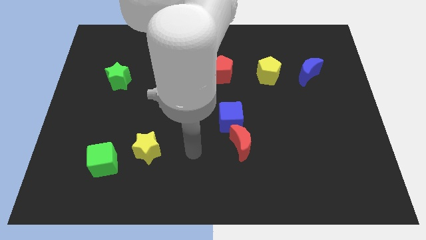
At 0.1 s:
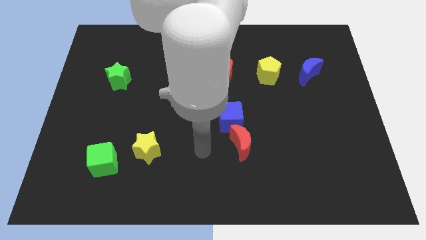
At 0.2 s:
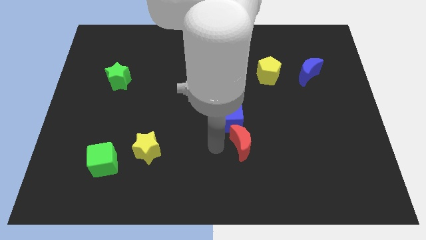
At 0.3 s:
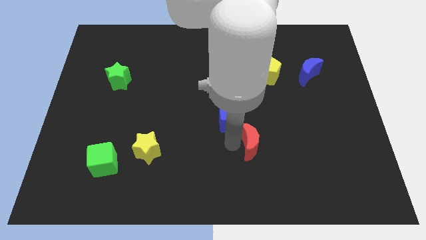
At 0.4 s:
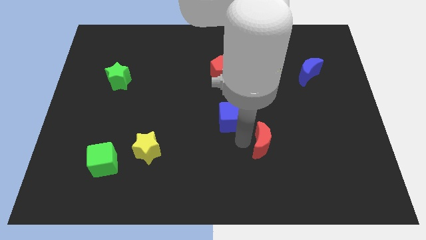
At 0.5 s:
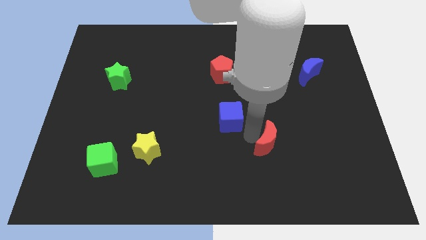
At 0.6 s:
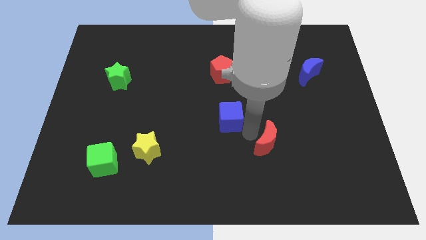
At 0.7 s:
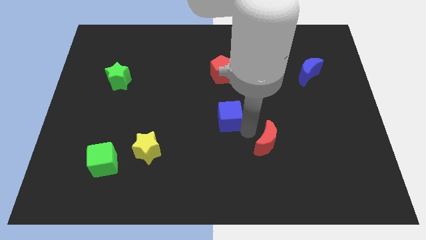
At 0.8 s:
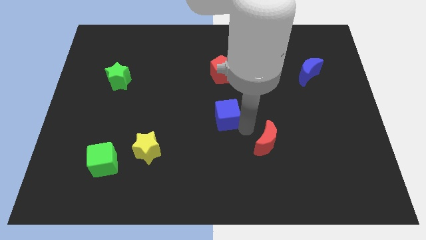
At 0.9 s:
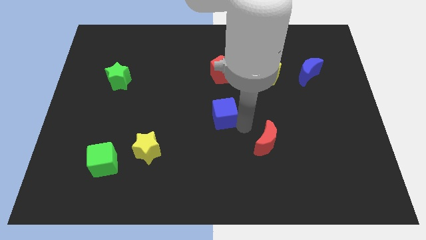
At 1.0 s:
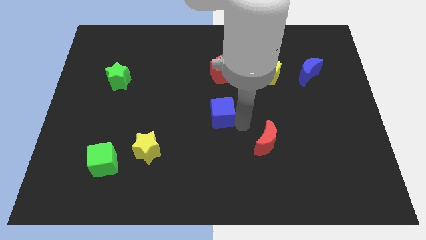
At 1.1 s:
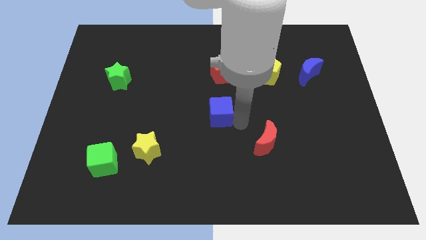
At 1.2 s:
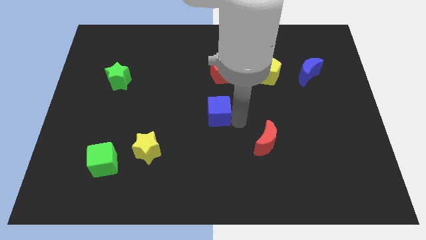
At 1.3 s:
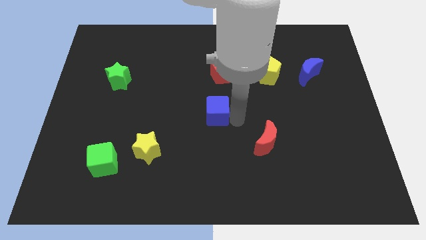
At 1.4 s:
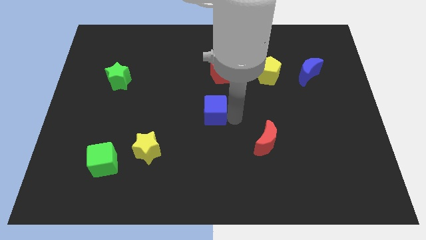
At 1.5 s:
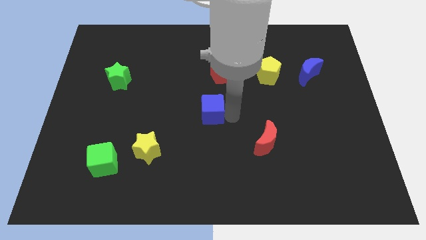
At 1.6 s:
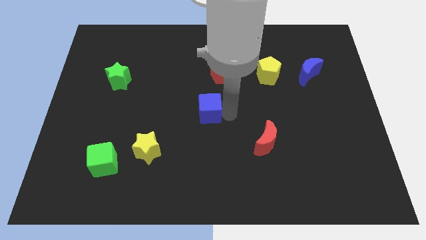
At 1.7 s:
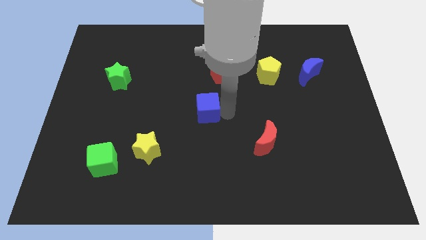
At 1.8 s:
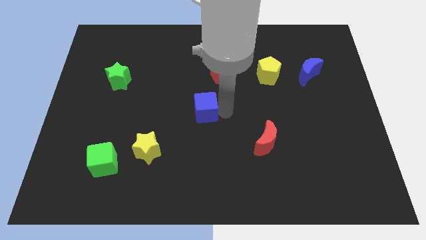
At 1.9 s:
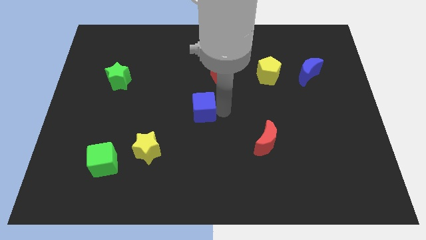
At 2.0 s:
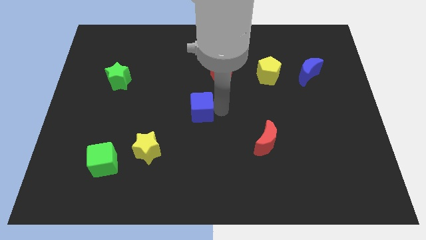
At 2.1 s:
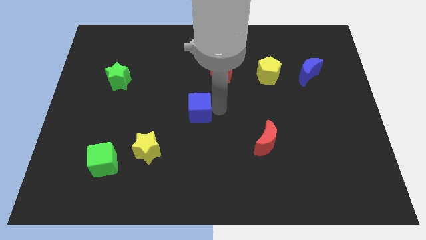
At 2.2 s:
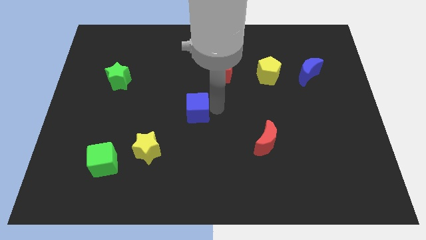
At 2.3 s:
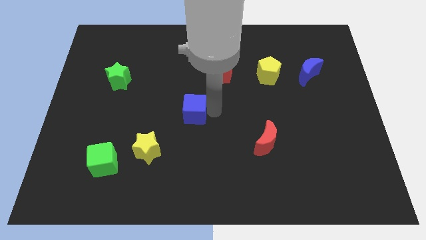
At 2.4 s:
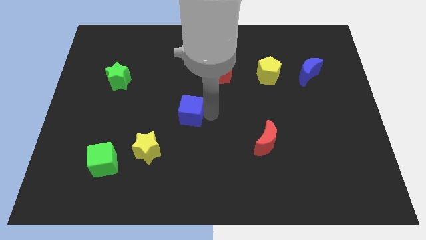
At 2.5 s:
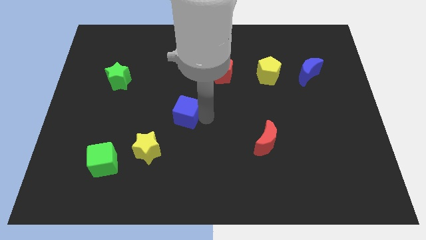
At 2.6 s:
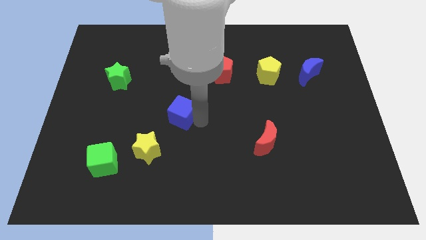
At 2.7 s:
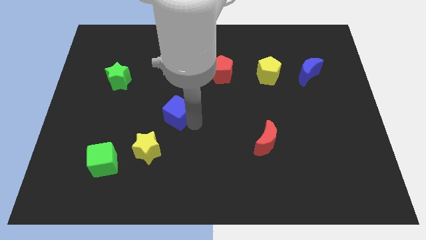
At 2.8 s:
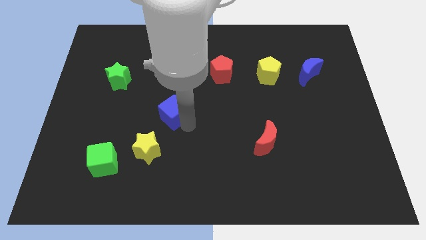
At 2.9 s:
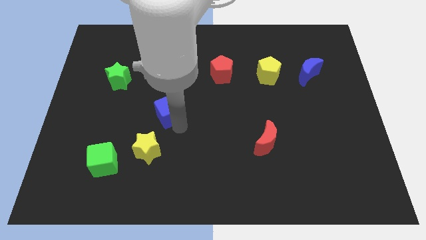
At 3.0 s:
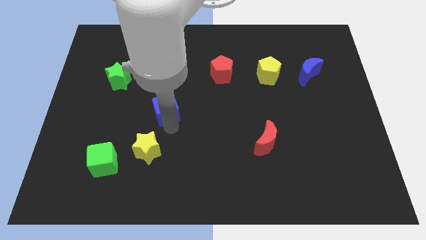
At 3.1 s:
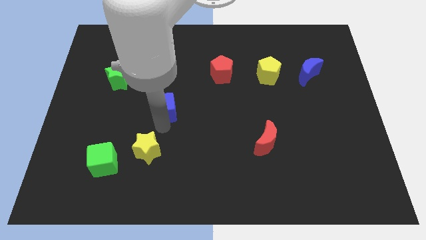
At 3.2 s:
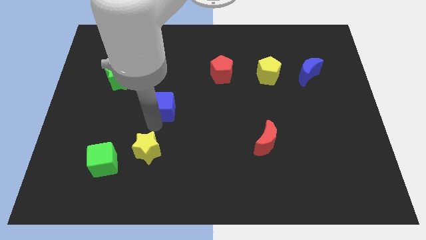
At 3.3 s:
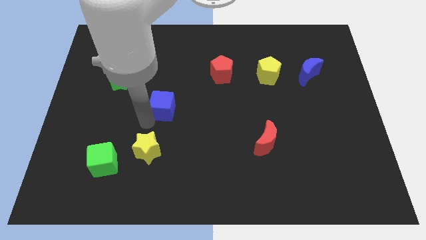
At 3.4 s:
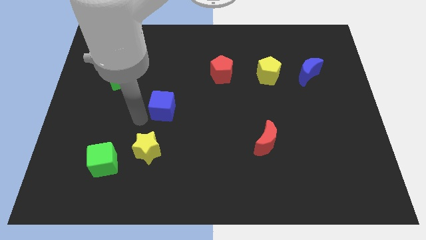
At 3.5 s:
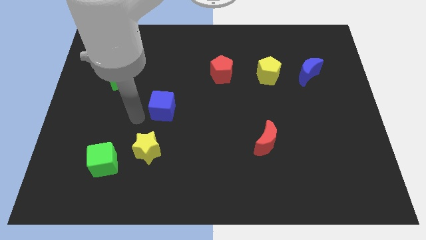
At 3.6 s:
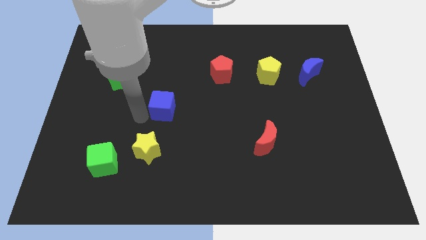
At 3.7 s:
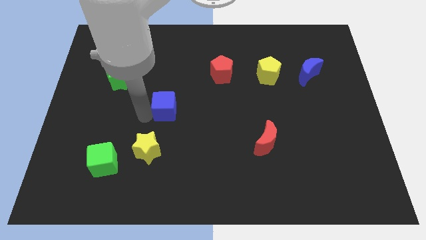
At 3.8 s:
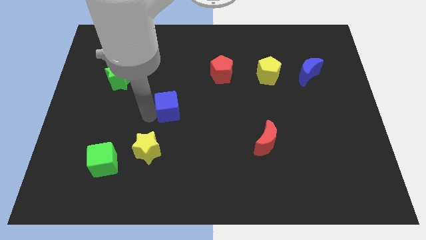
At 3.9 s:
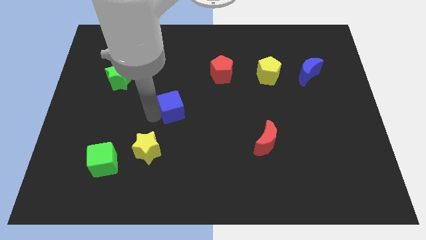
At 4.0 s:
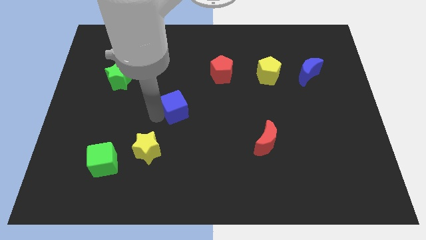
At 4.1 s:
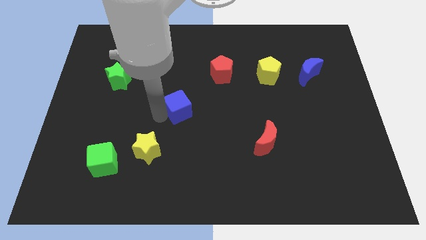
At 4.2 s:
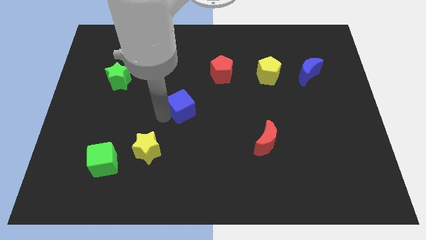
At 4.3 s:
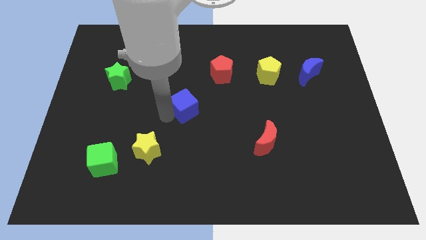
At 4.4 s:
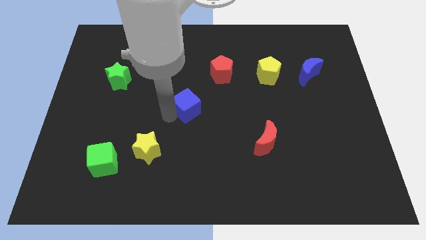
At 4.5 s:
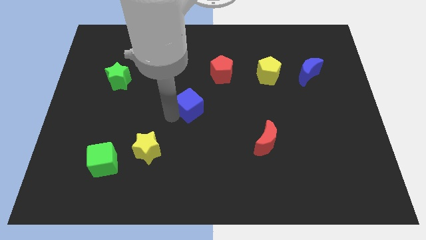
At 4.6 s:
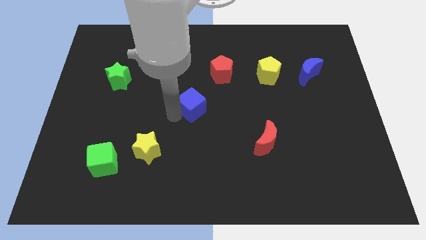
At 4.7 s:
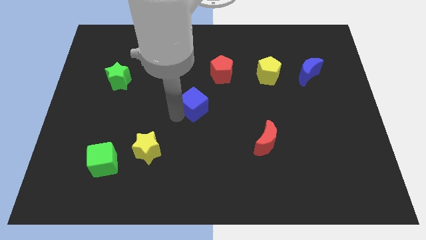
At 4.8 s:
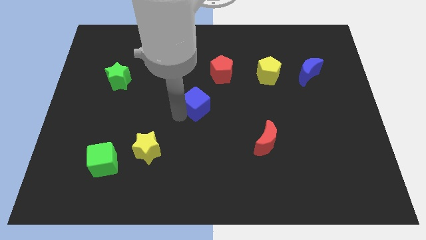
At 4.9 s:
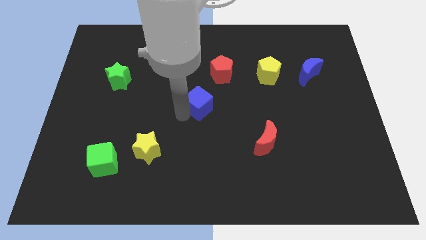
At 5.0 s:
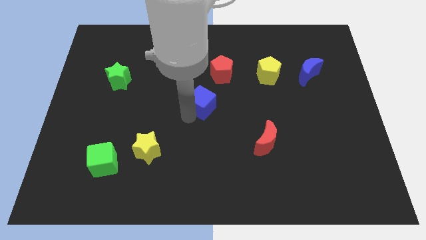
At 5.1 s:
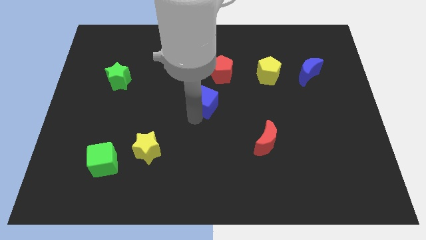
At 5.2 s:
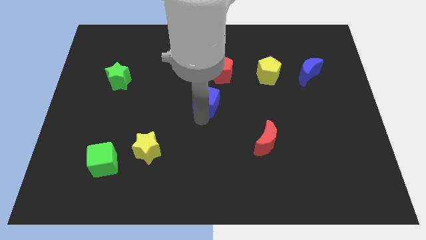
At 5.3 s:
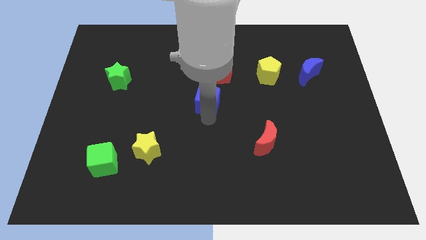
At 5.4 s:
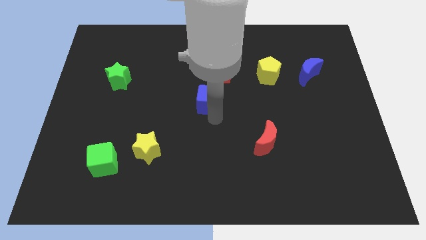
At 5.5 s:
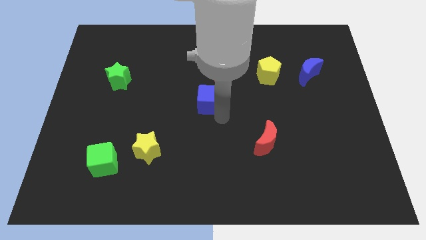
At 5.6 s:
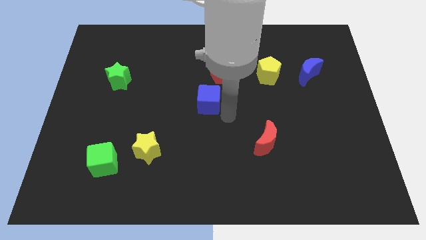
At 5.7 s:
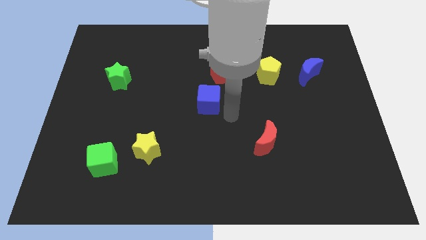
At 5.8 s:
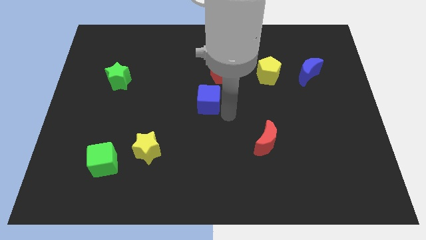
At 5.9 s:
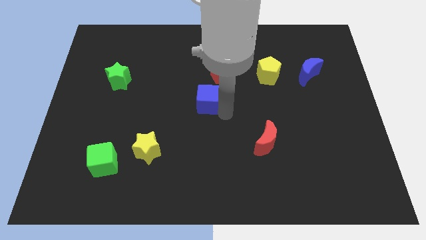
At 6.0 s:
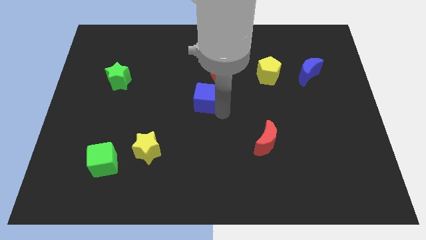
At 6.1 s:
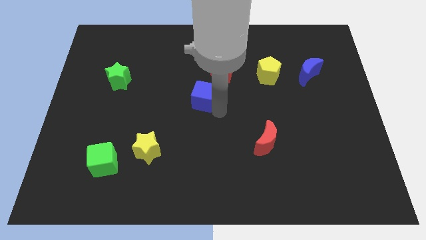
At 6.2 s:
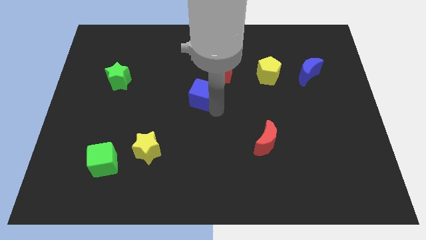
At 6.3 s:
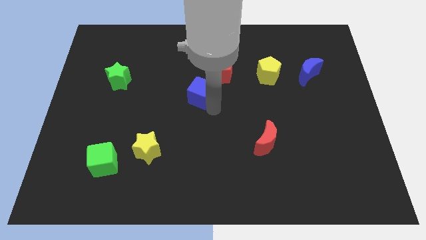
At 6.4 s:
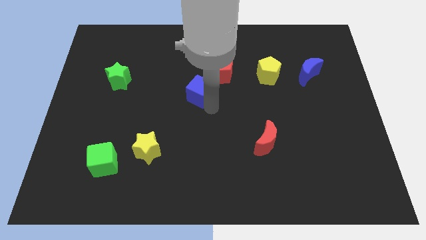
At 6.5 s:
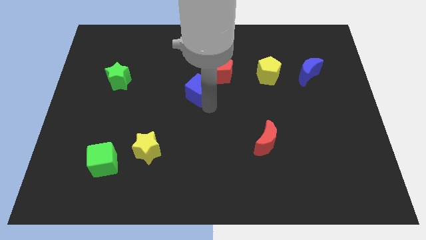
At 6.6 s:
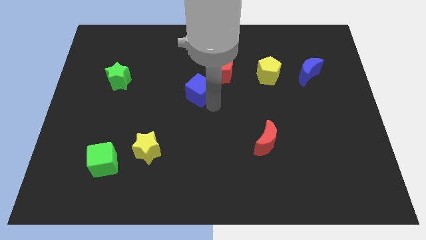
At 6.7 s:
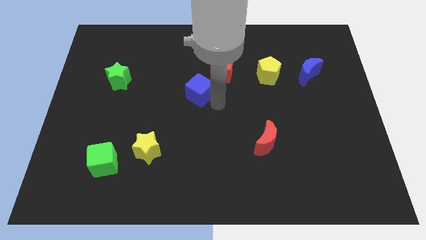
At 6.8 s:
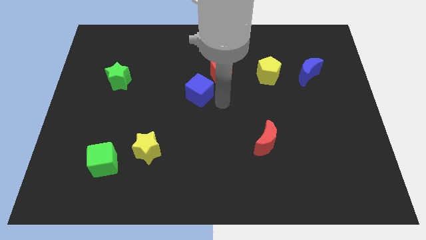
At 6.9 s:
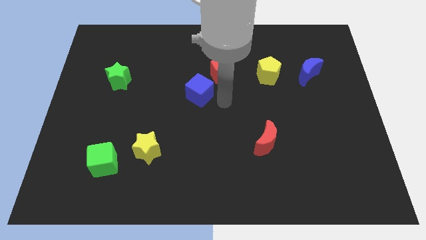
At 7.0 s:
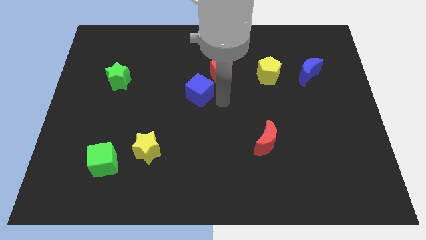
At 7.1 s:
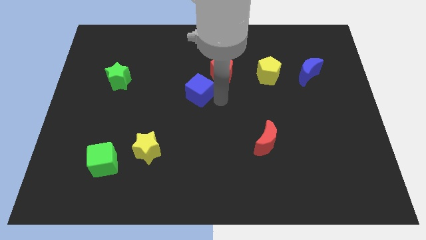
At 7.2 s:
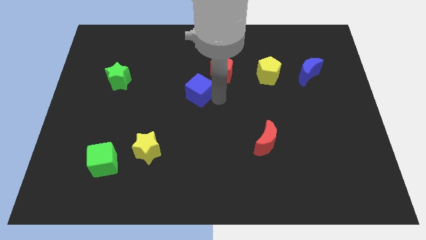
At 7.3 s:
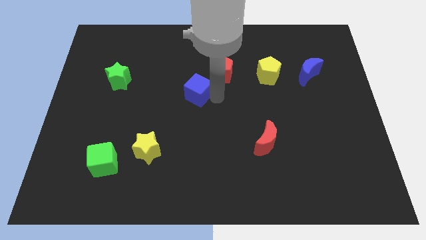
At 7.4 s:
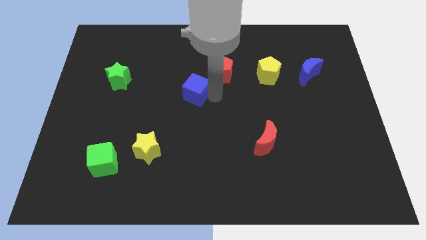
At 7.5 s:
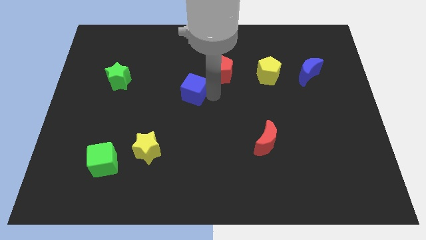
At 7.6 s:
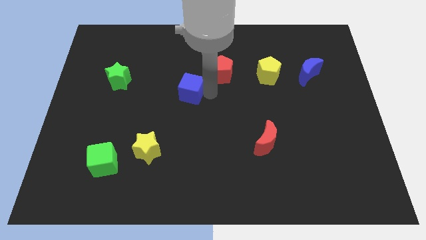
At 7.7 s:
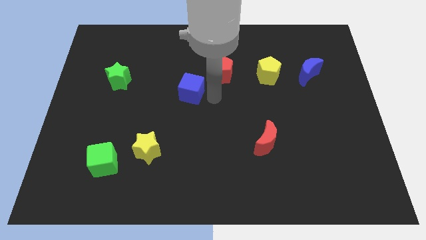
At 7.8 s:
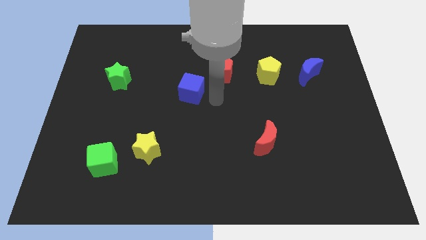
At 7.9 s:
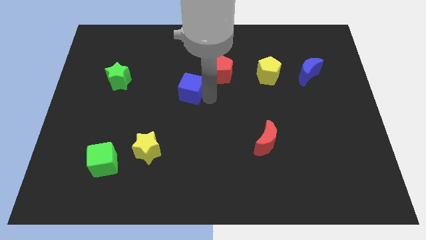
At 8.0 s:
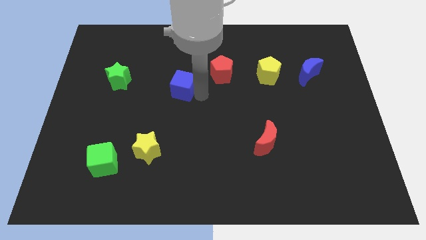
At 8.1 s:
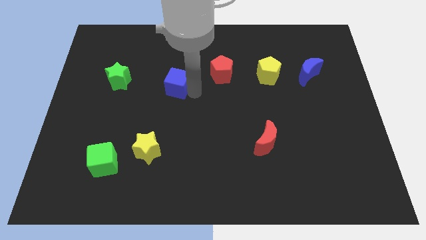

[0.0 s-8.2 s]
put the blue cube to the right side of the green star
